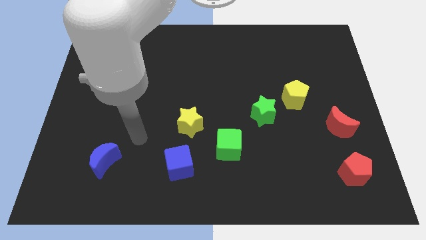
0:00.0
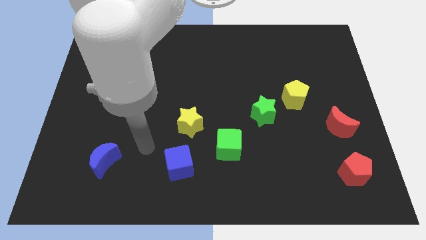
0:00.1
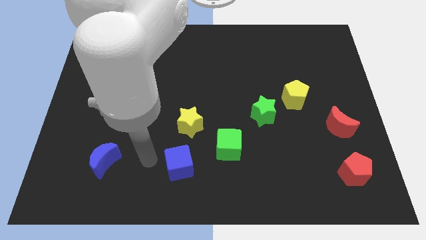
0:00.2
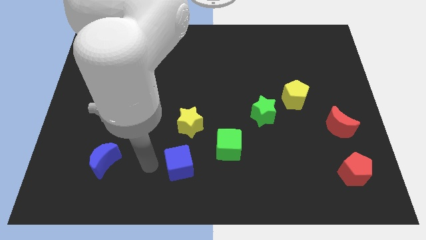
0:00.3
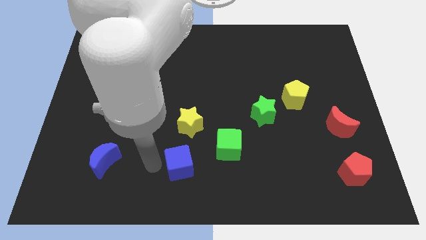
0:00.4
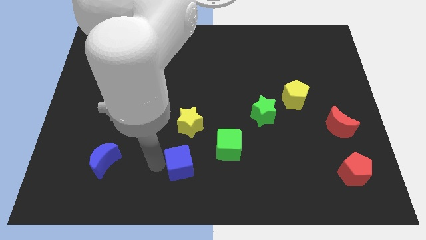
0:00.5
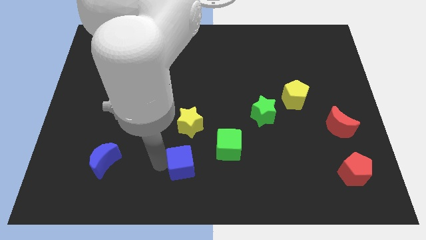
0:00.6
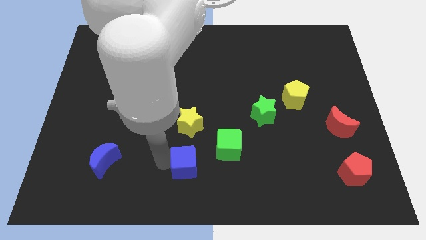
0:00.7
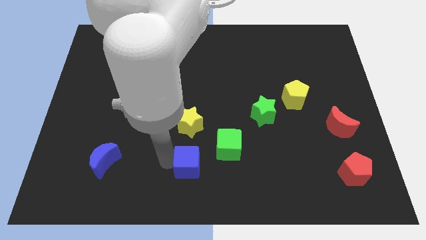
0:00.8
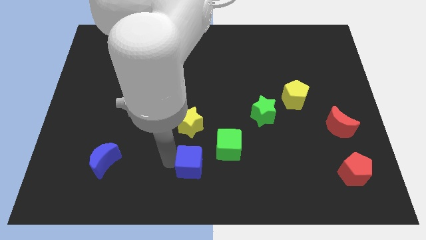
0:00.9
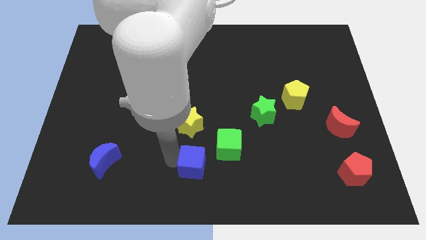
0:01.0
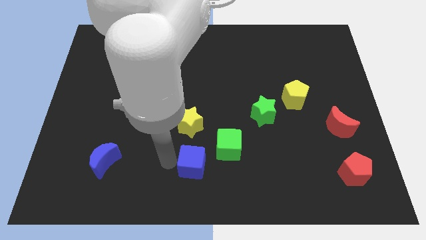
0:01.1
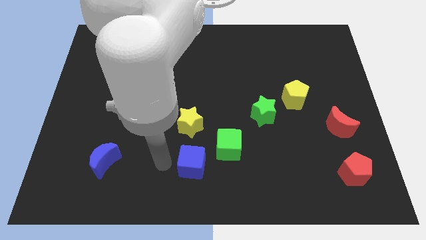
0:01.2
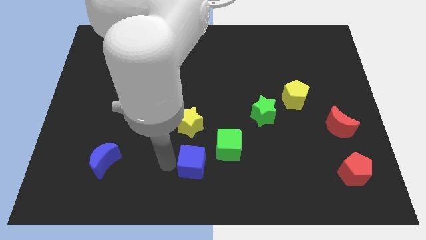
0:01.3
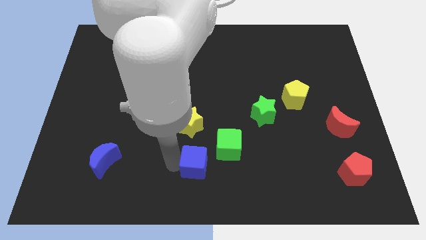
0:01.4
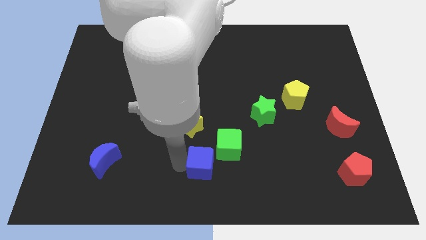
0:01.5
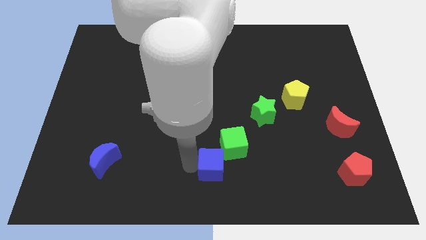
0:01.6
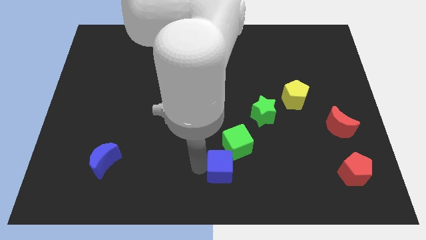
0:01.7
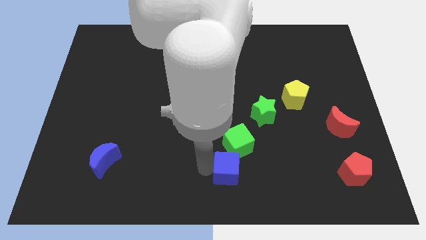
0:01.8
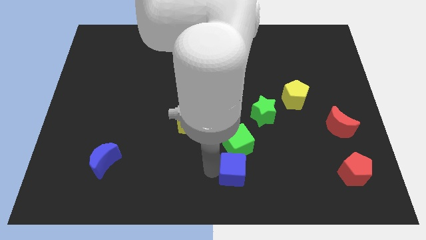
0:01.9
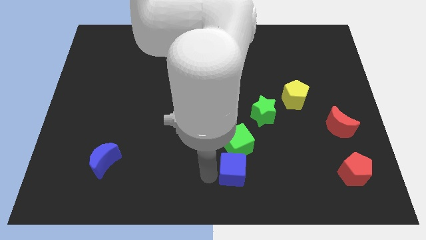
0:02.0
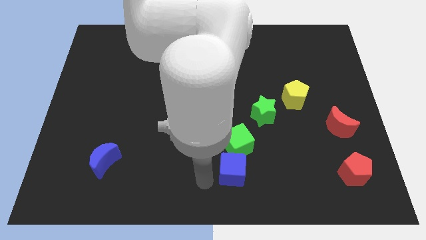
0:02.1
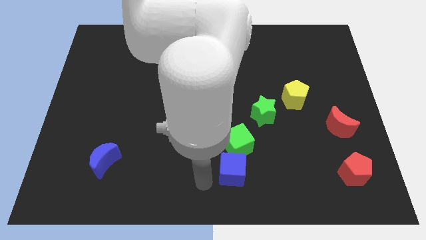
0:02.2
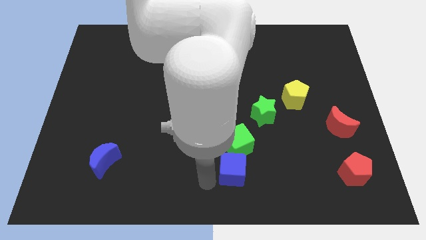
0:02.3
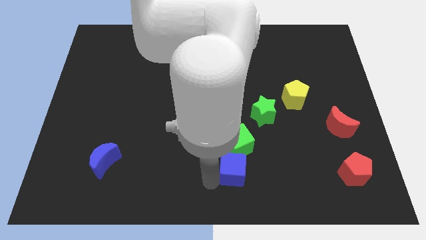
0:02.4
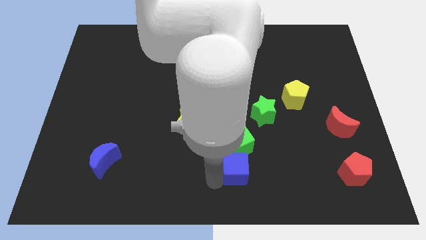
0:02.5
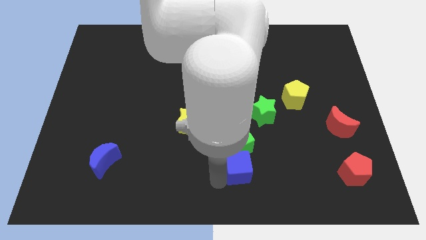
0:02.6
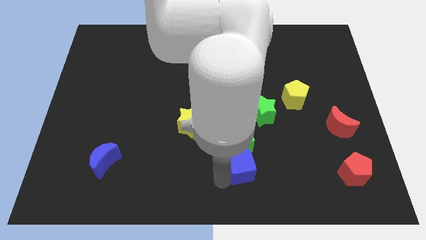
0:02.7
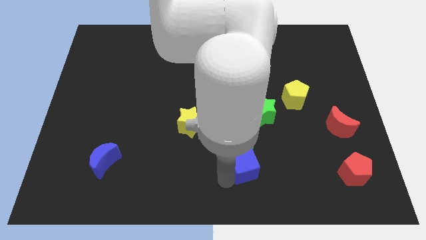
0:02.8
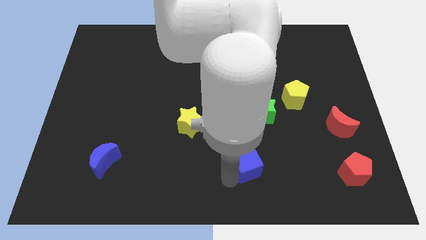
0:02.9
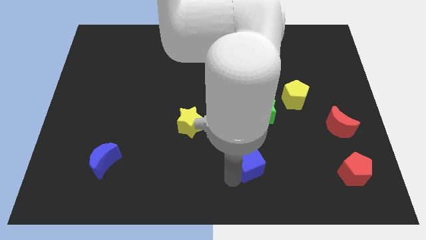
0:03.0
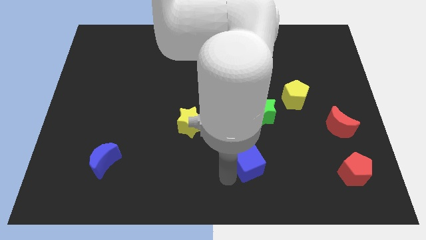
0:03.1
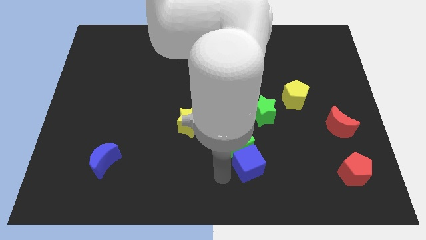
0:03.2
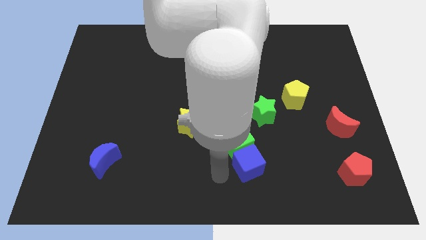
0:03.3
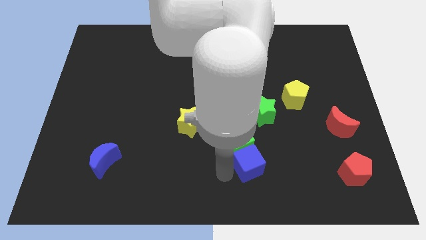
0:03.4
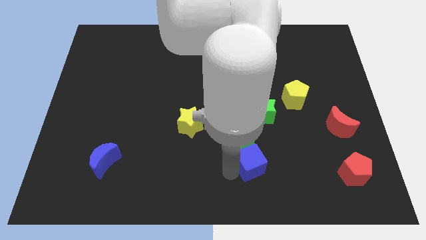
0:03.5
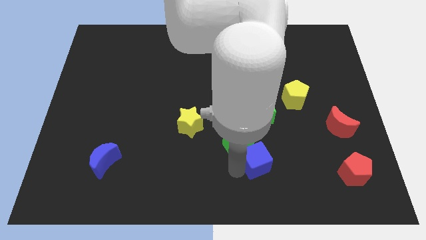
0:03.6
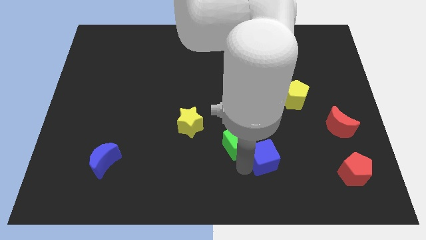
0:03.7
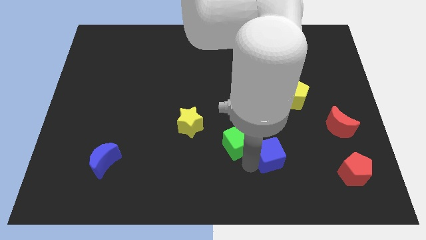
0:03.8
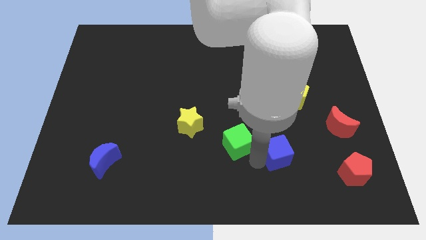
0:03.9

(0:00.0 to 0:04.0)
push the blue cube right

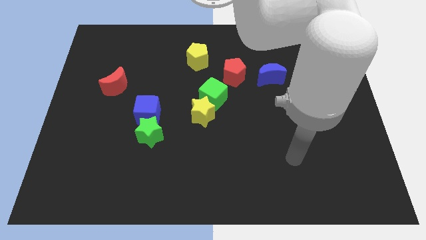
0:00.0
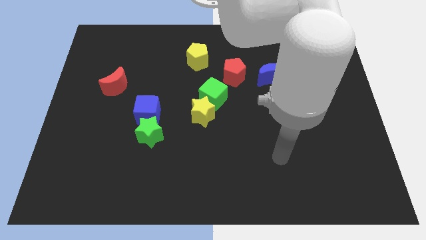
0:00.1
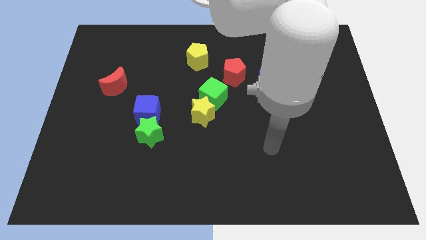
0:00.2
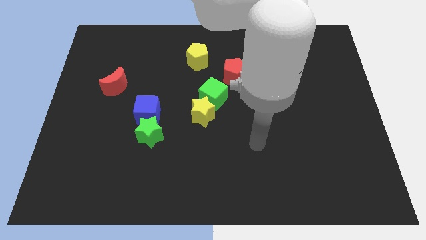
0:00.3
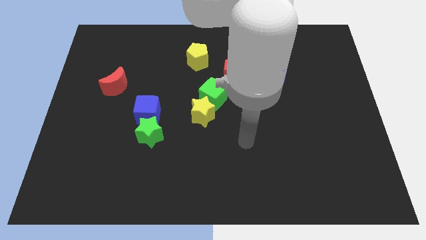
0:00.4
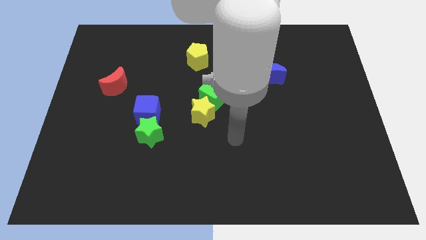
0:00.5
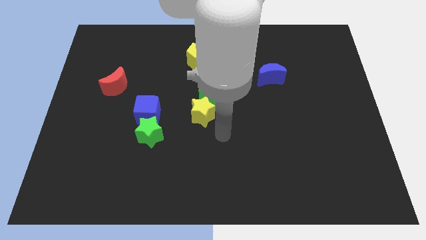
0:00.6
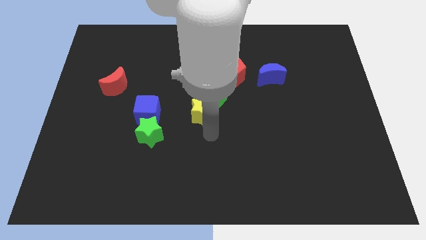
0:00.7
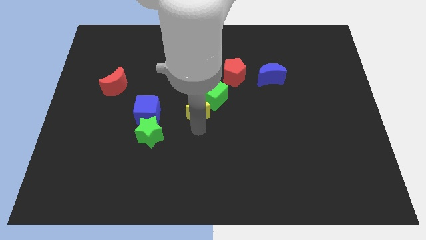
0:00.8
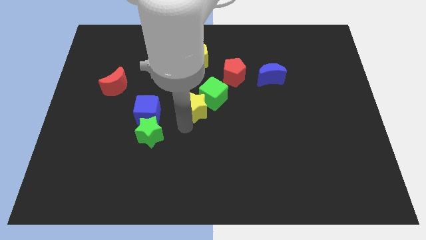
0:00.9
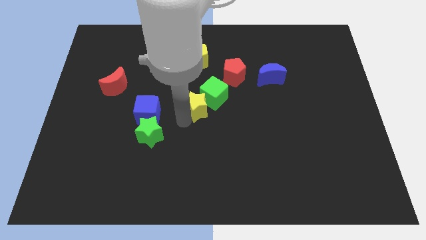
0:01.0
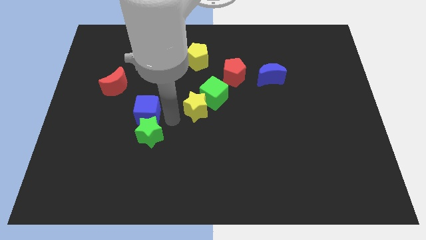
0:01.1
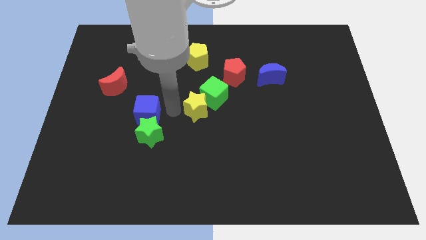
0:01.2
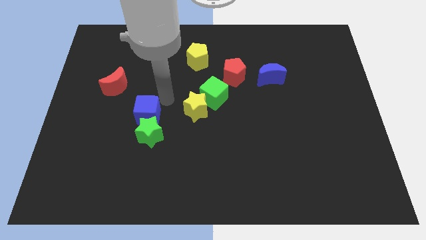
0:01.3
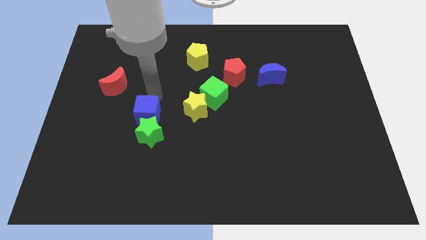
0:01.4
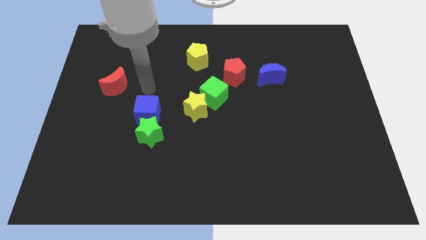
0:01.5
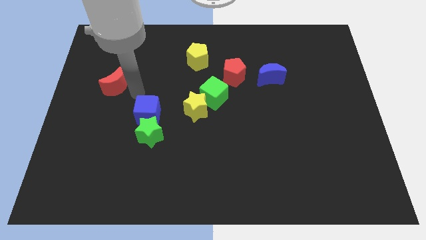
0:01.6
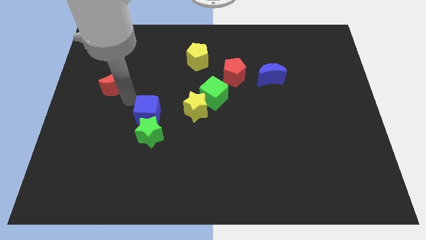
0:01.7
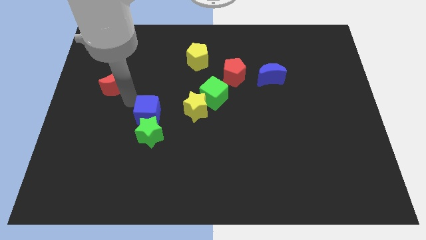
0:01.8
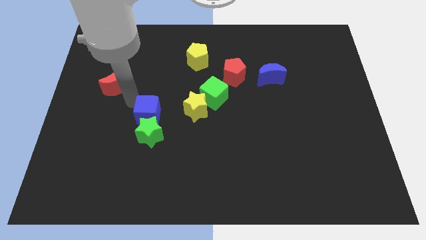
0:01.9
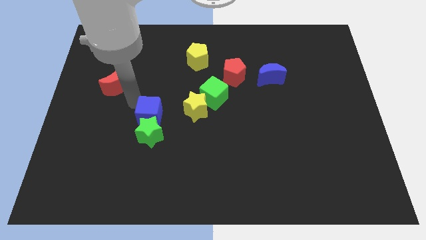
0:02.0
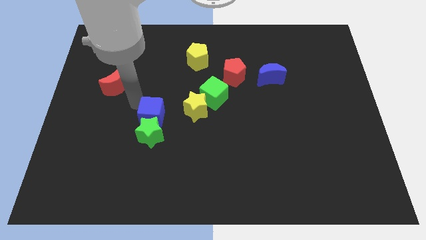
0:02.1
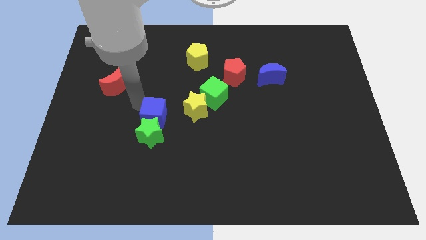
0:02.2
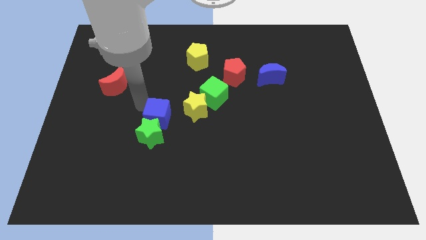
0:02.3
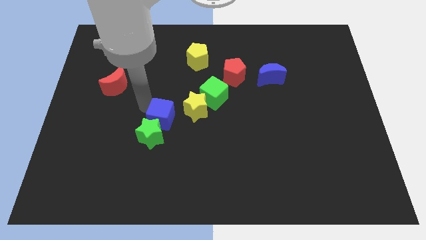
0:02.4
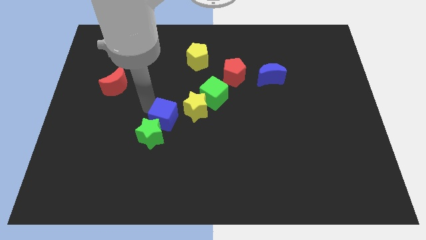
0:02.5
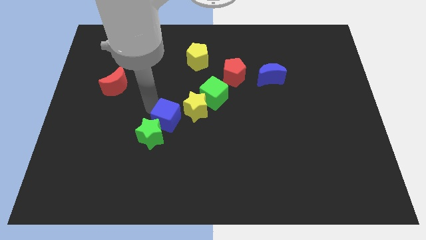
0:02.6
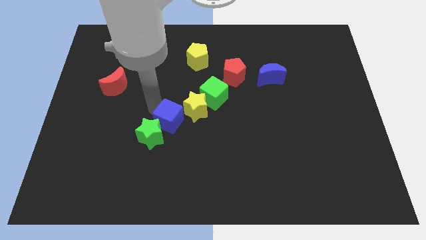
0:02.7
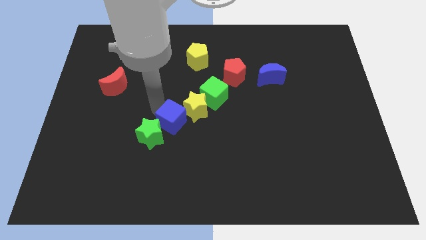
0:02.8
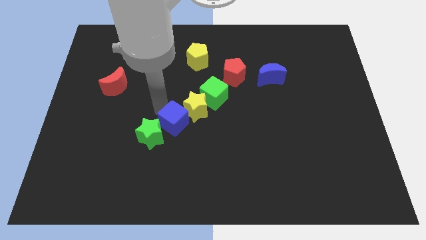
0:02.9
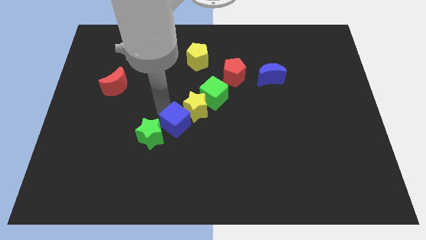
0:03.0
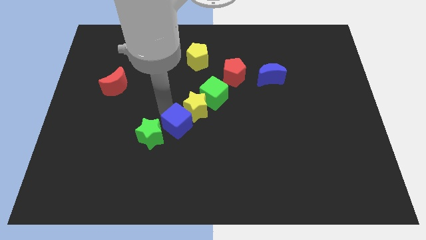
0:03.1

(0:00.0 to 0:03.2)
slightly slide the blue cube down and to the right

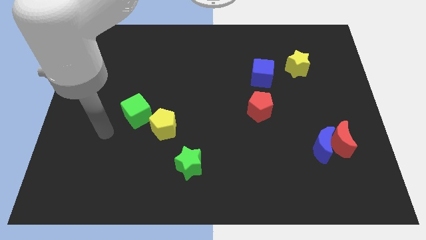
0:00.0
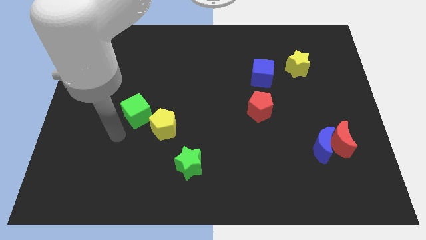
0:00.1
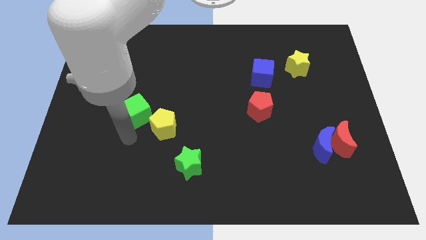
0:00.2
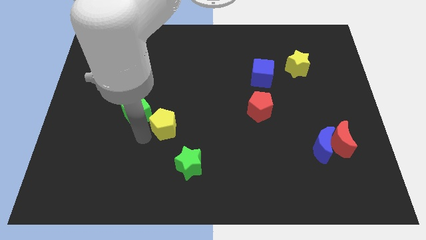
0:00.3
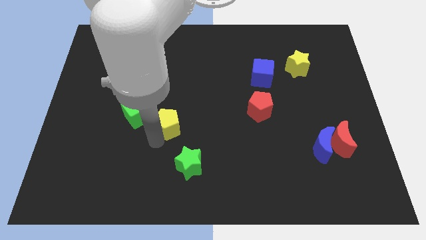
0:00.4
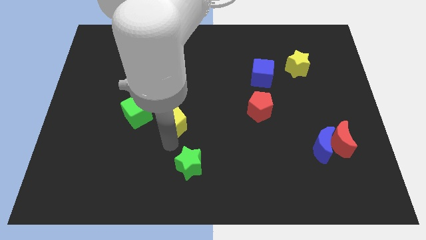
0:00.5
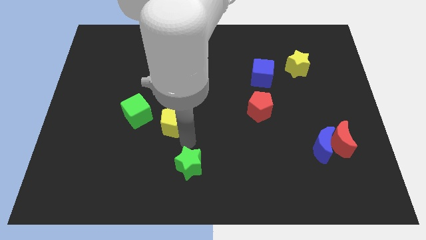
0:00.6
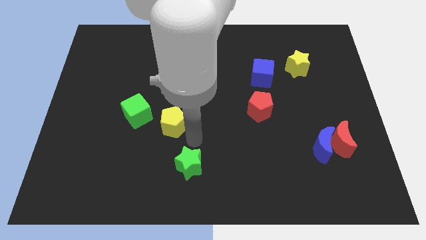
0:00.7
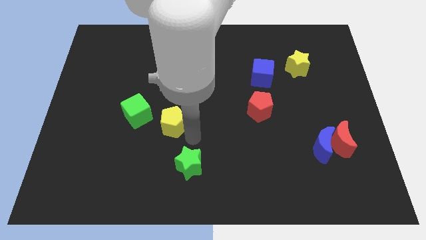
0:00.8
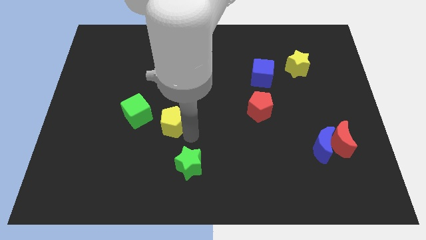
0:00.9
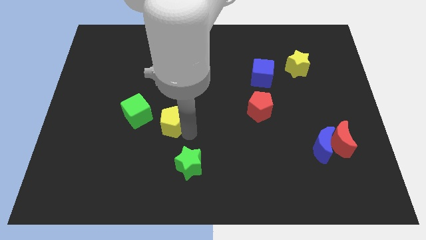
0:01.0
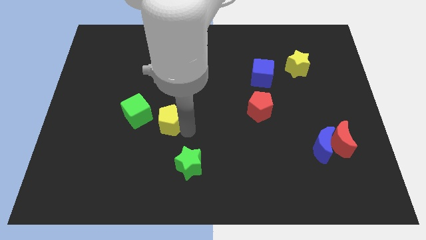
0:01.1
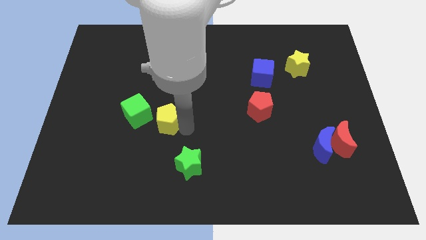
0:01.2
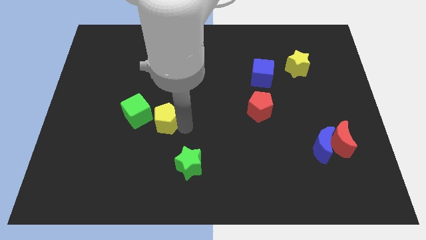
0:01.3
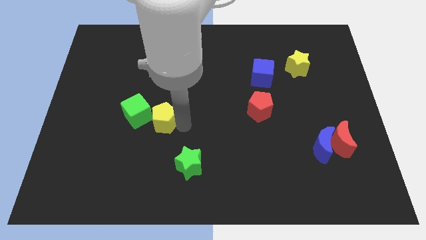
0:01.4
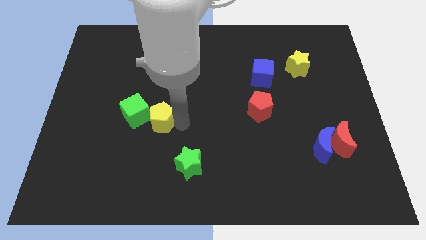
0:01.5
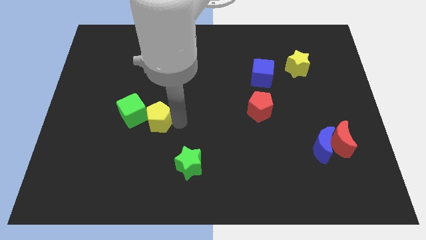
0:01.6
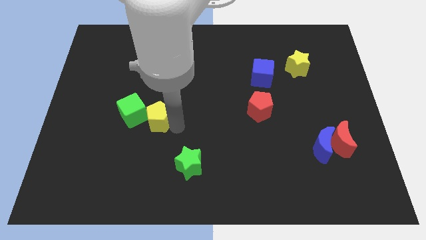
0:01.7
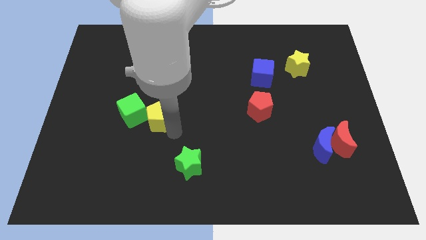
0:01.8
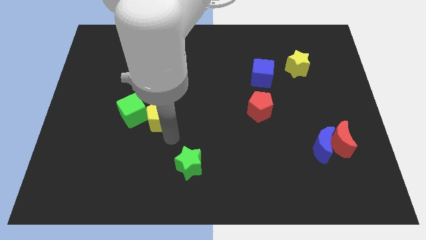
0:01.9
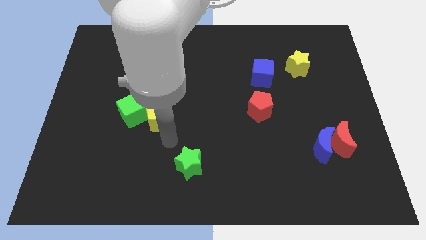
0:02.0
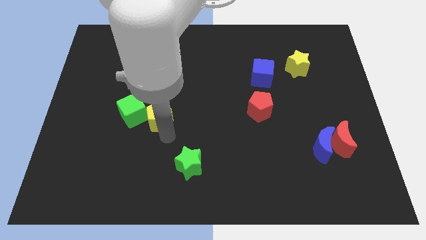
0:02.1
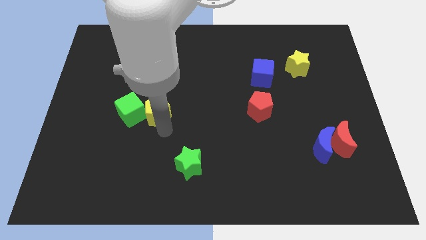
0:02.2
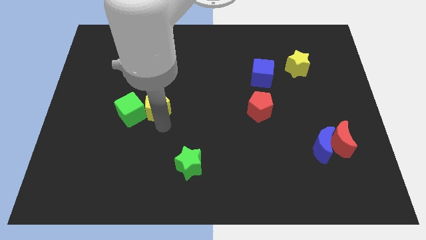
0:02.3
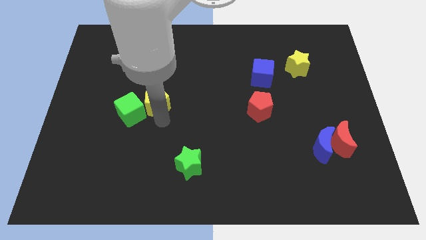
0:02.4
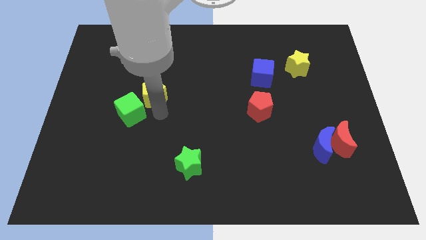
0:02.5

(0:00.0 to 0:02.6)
slightly push the yellow pentagon upwards and then left
